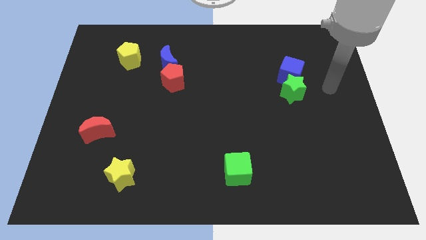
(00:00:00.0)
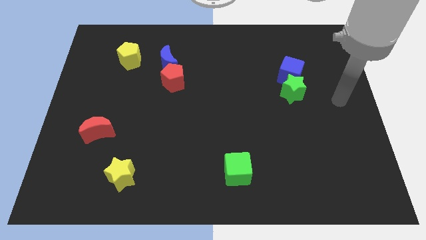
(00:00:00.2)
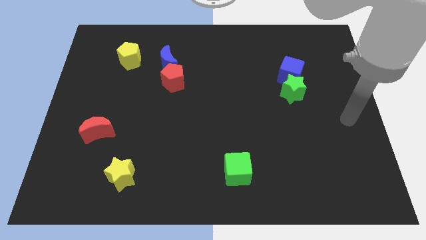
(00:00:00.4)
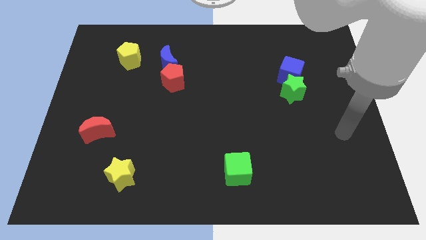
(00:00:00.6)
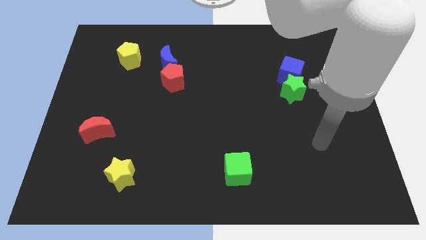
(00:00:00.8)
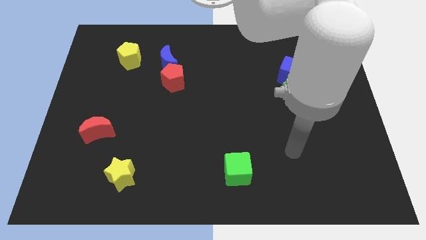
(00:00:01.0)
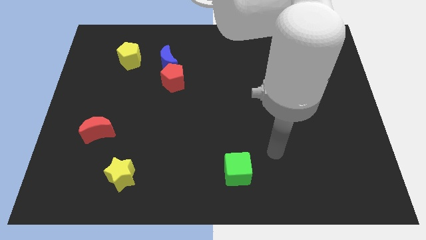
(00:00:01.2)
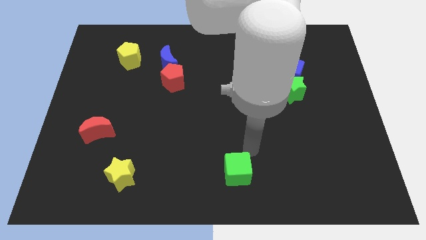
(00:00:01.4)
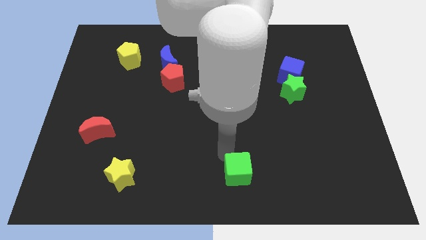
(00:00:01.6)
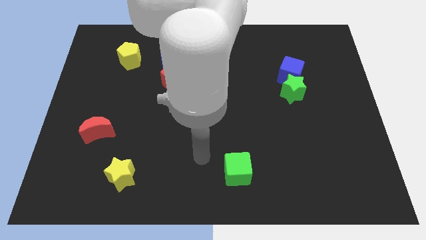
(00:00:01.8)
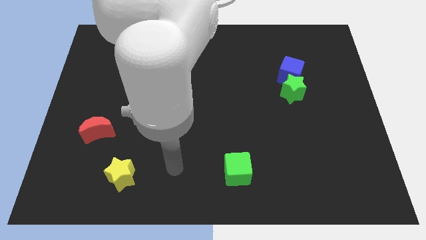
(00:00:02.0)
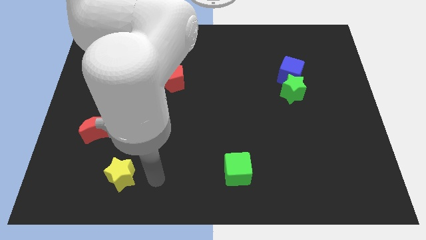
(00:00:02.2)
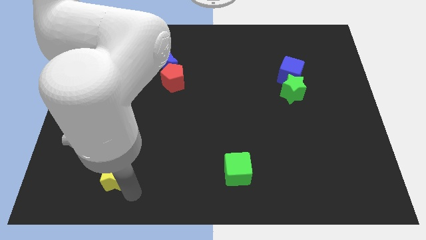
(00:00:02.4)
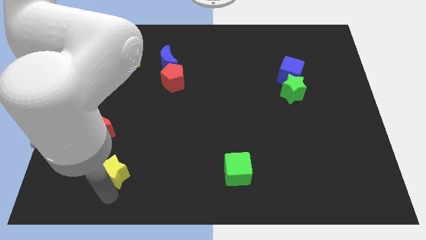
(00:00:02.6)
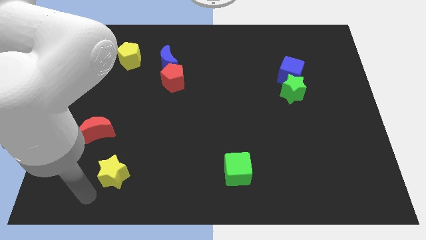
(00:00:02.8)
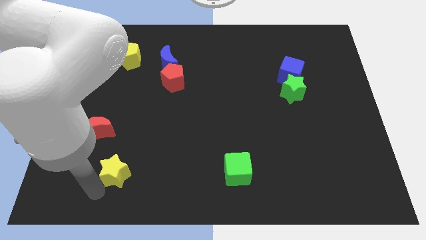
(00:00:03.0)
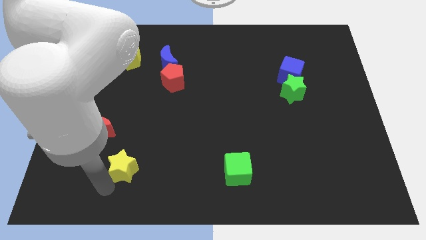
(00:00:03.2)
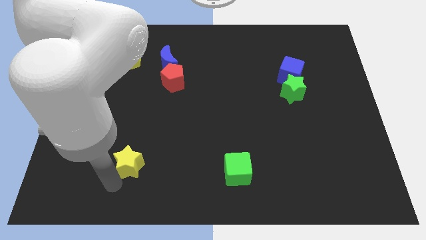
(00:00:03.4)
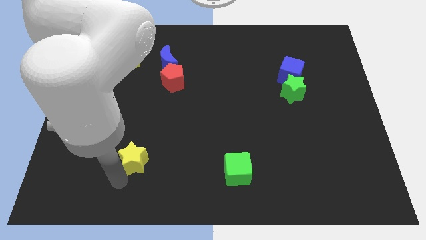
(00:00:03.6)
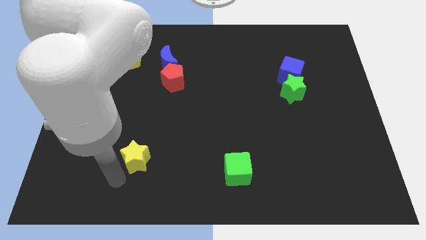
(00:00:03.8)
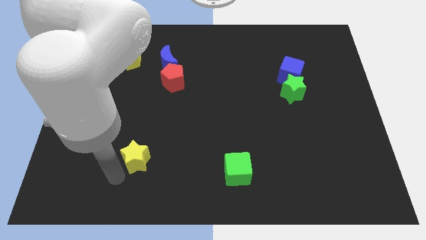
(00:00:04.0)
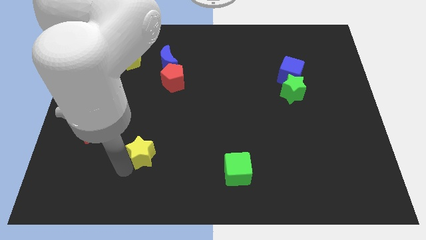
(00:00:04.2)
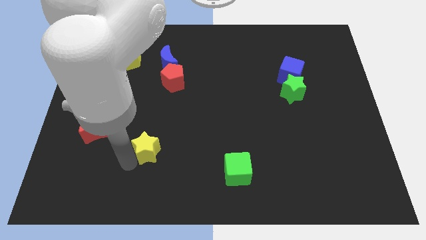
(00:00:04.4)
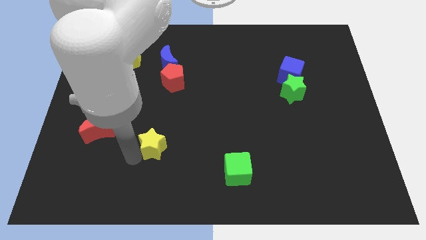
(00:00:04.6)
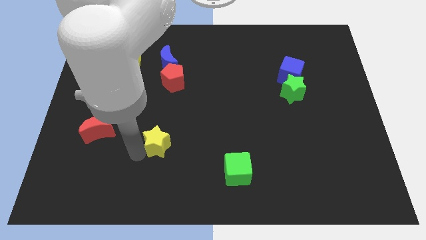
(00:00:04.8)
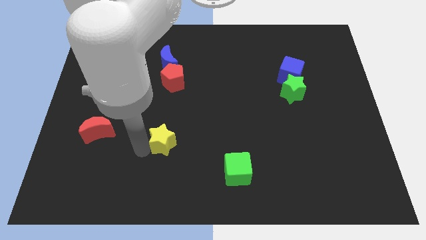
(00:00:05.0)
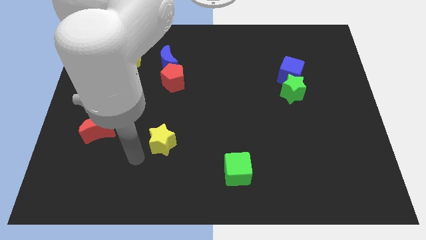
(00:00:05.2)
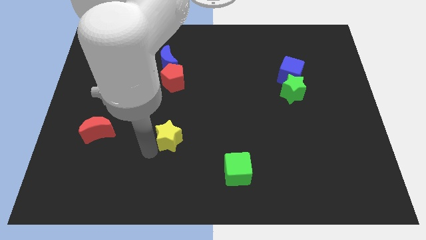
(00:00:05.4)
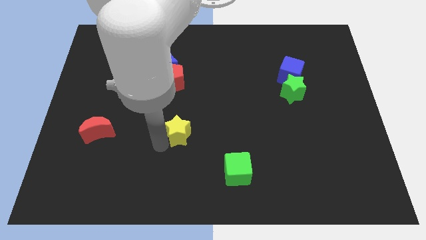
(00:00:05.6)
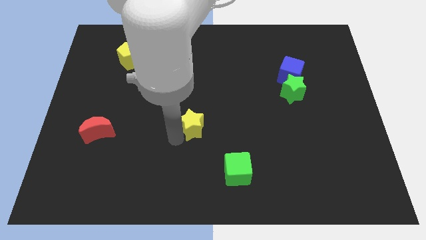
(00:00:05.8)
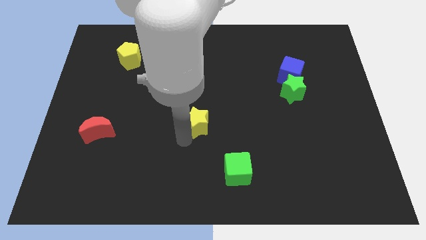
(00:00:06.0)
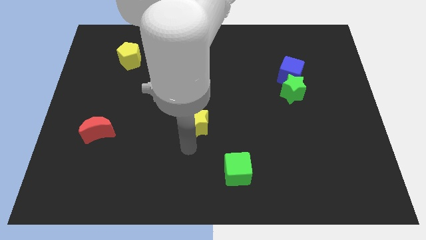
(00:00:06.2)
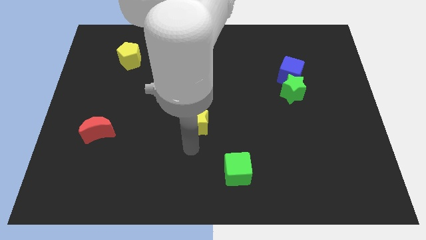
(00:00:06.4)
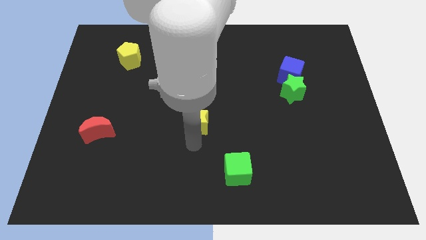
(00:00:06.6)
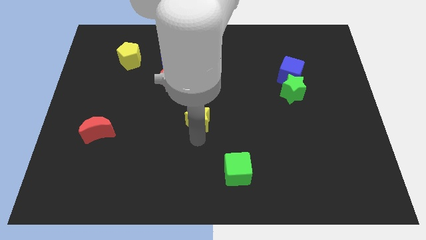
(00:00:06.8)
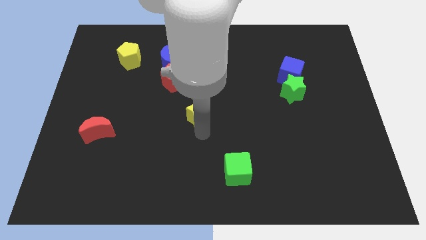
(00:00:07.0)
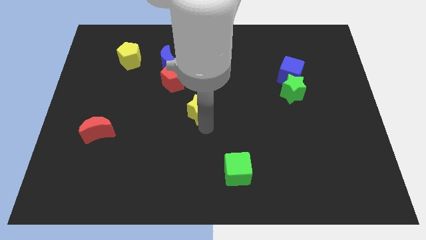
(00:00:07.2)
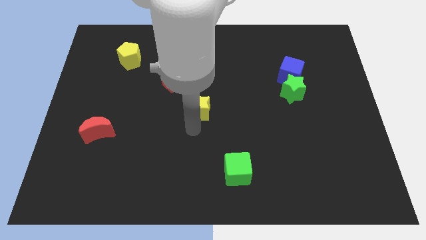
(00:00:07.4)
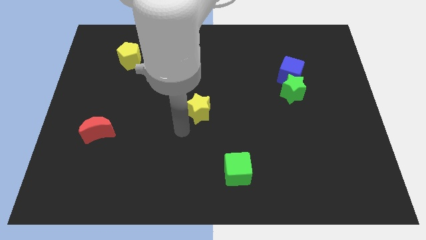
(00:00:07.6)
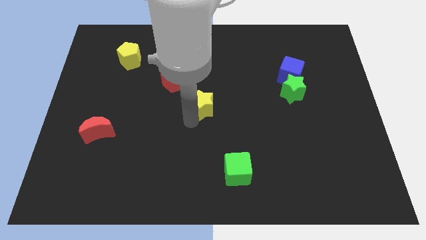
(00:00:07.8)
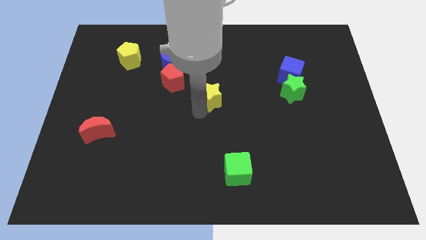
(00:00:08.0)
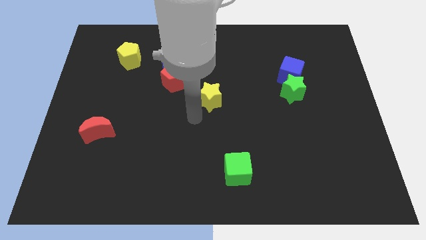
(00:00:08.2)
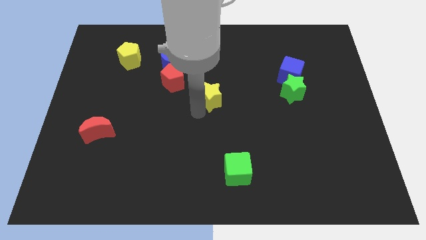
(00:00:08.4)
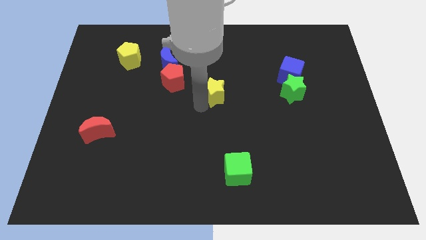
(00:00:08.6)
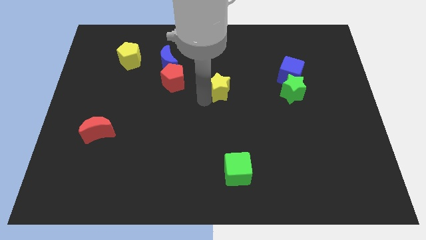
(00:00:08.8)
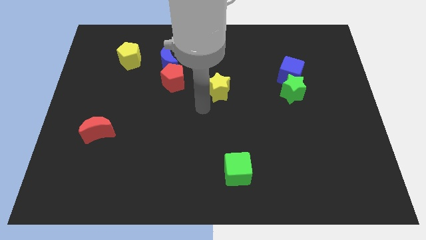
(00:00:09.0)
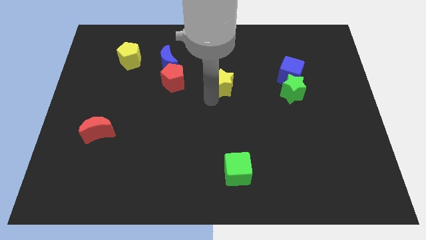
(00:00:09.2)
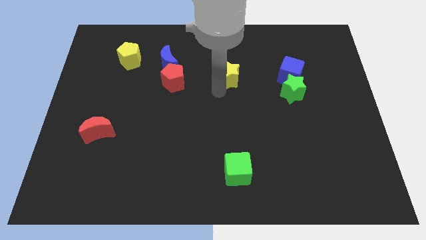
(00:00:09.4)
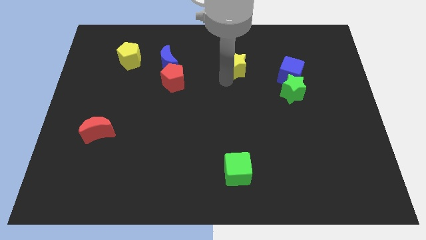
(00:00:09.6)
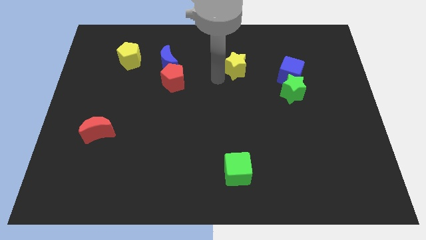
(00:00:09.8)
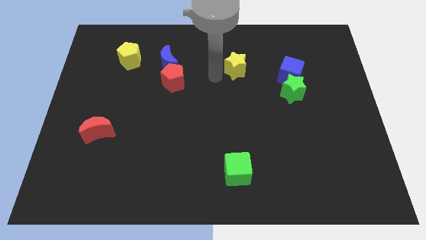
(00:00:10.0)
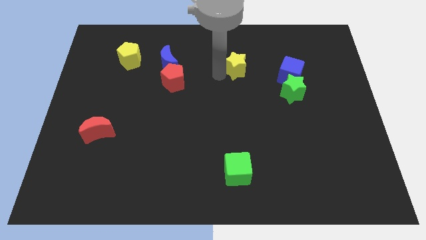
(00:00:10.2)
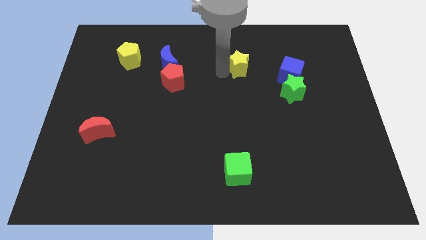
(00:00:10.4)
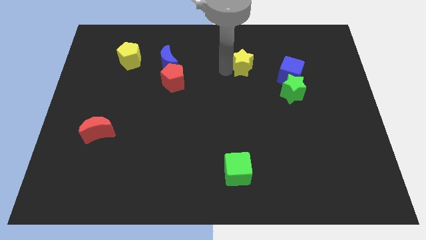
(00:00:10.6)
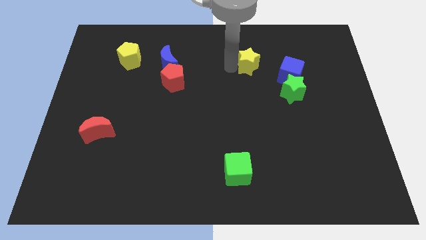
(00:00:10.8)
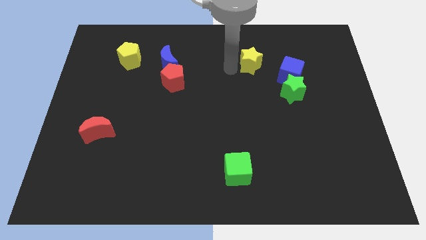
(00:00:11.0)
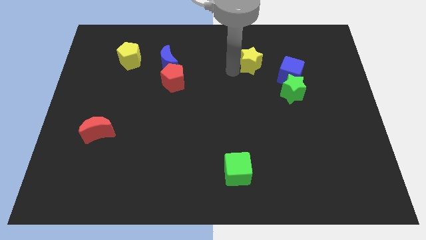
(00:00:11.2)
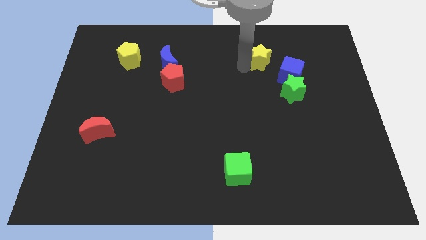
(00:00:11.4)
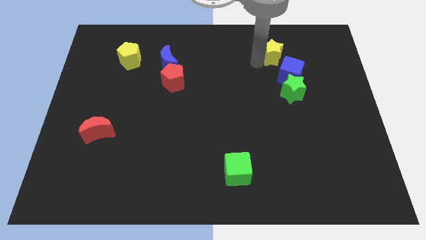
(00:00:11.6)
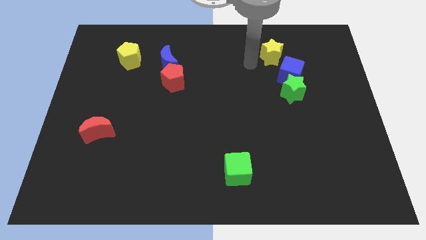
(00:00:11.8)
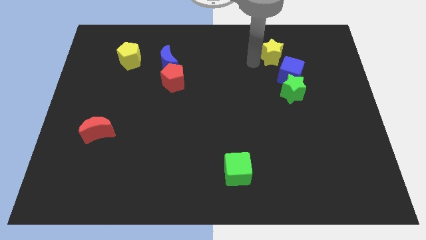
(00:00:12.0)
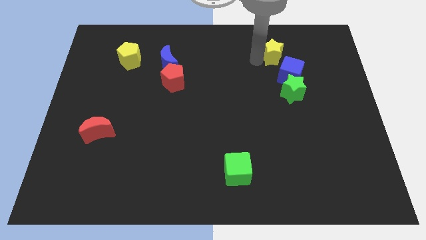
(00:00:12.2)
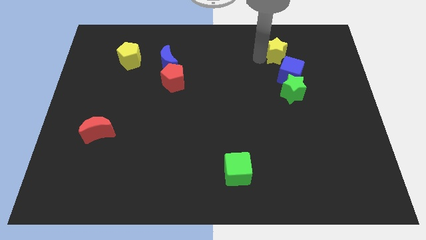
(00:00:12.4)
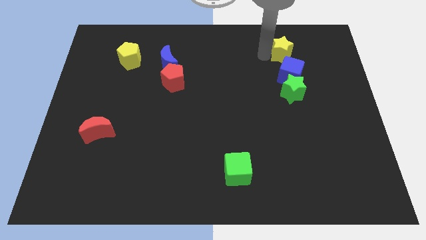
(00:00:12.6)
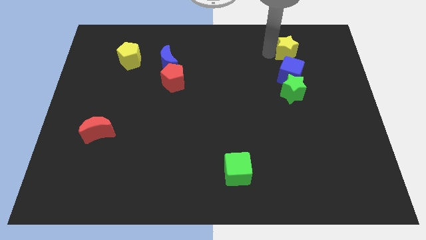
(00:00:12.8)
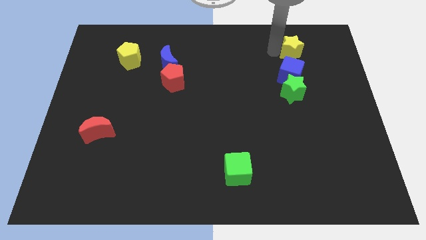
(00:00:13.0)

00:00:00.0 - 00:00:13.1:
put the yellow star diagonally up and to the right of the blue cube

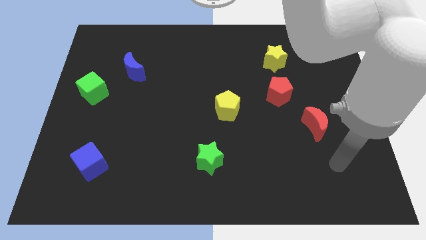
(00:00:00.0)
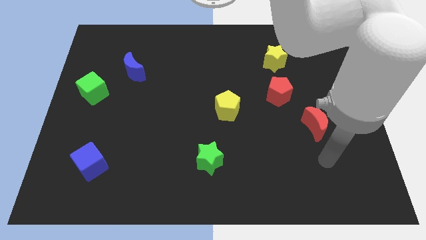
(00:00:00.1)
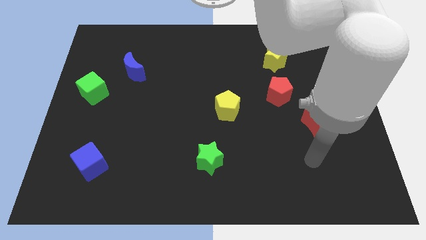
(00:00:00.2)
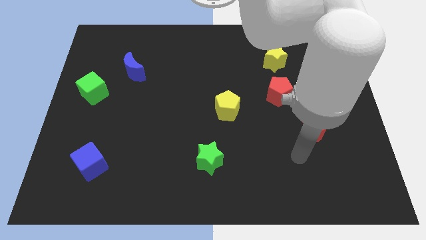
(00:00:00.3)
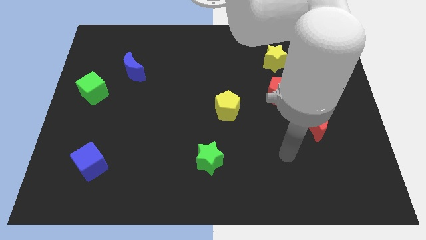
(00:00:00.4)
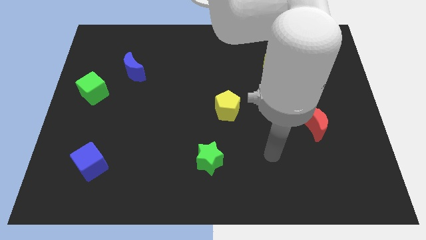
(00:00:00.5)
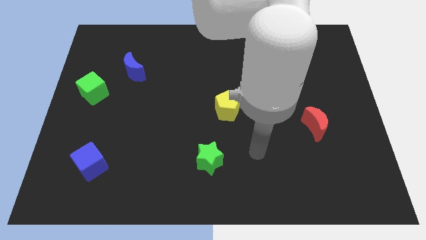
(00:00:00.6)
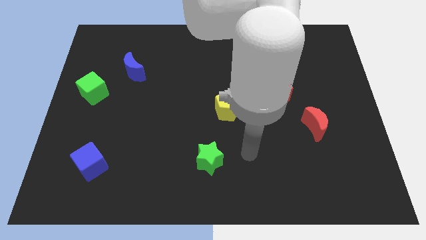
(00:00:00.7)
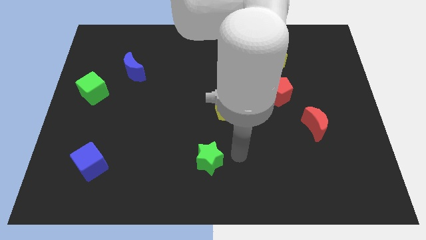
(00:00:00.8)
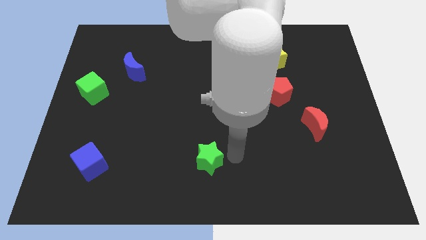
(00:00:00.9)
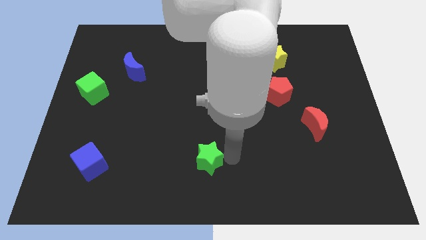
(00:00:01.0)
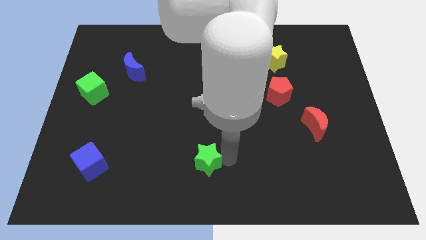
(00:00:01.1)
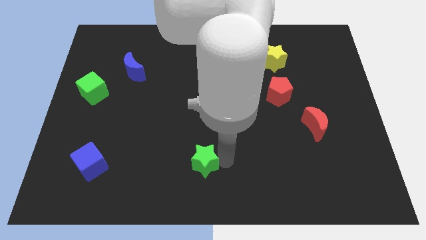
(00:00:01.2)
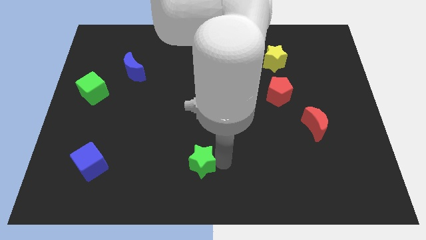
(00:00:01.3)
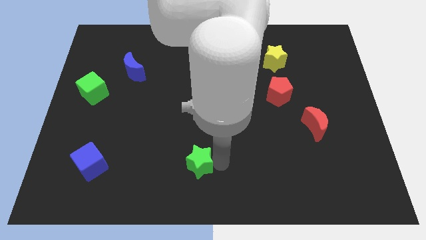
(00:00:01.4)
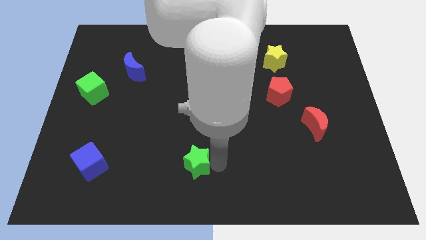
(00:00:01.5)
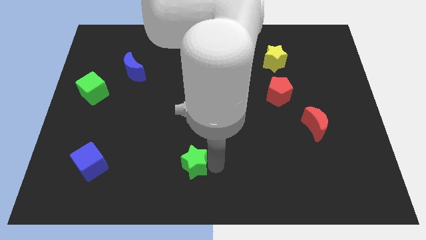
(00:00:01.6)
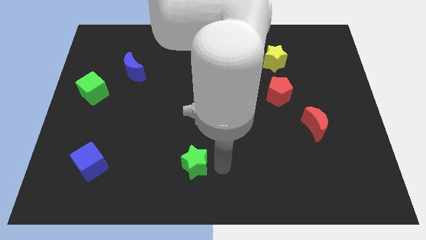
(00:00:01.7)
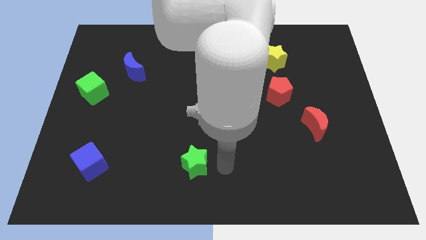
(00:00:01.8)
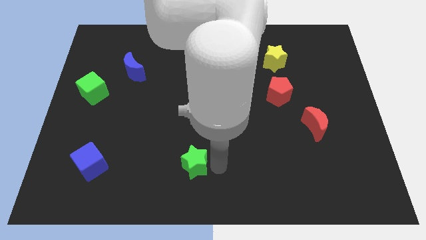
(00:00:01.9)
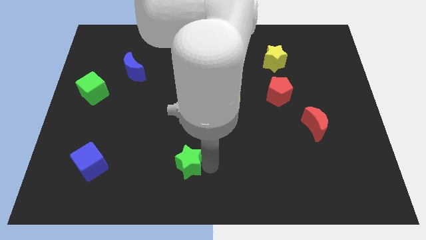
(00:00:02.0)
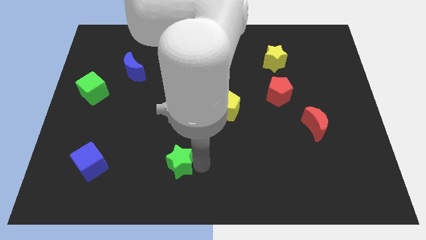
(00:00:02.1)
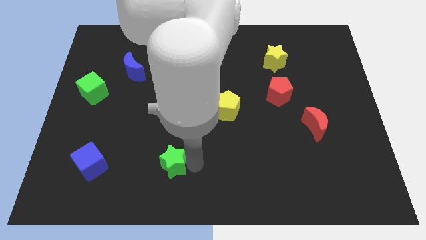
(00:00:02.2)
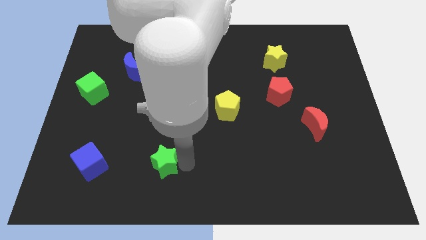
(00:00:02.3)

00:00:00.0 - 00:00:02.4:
move the green star to the right of the blue cube
